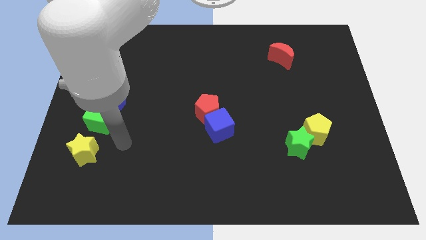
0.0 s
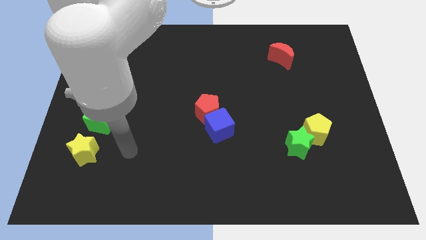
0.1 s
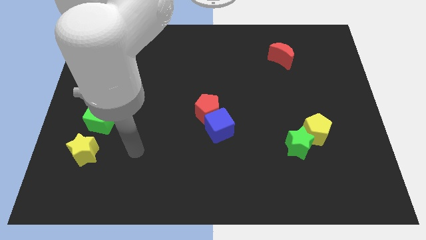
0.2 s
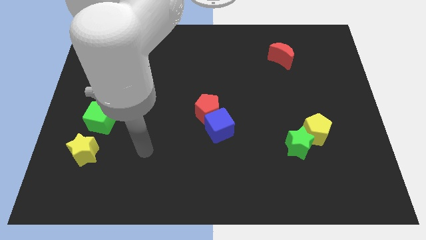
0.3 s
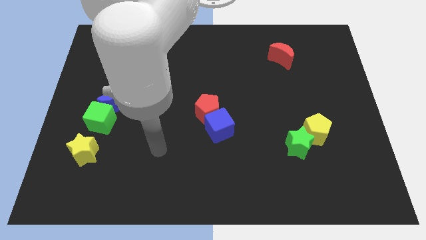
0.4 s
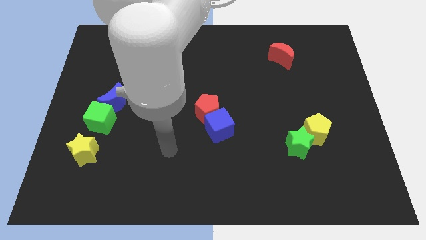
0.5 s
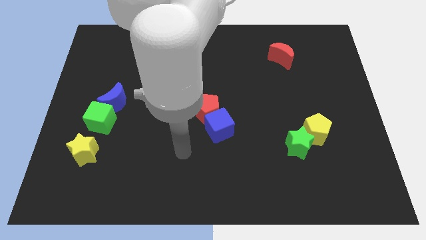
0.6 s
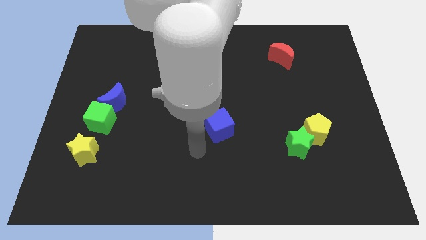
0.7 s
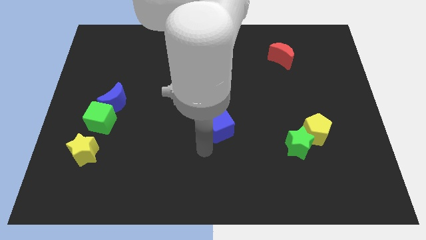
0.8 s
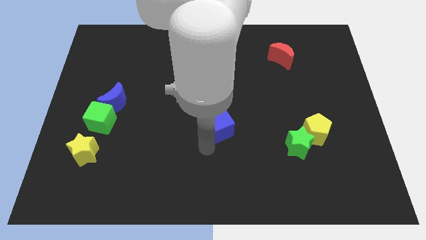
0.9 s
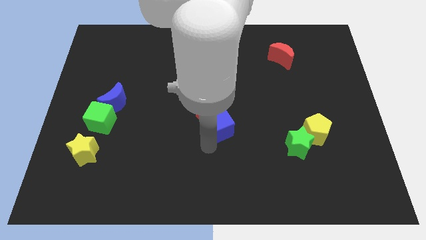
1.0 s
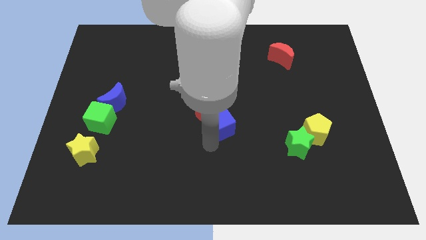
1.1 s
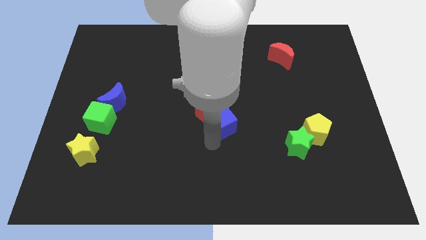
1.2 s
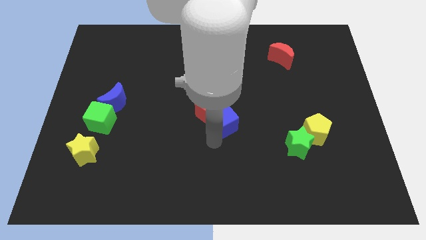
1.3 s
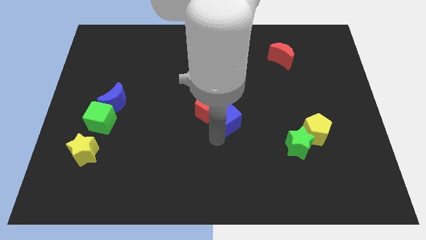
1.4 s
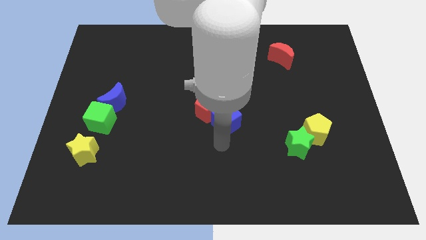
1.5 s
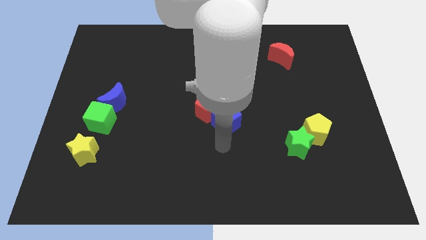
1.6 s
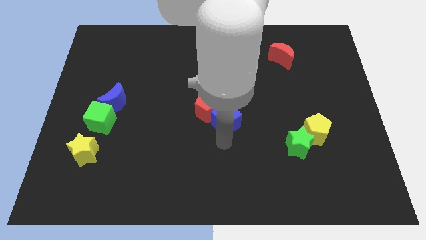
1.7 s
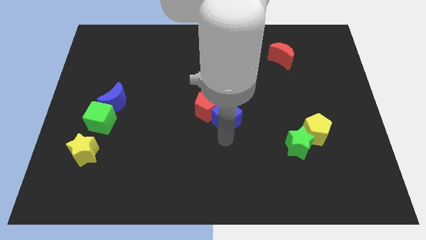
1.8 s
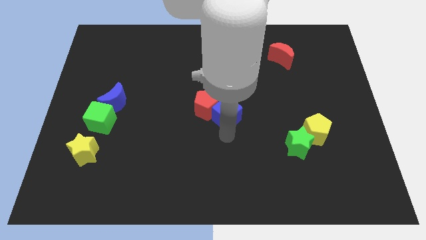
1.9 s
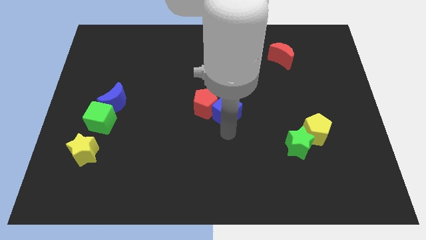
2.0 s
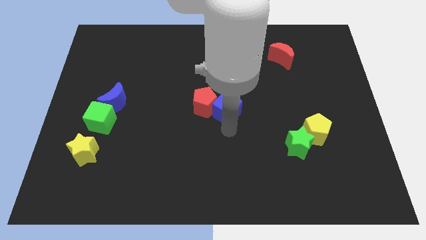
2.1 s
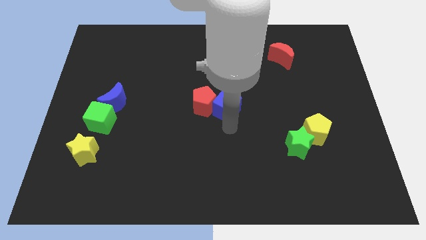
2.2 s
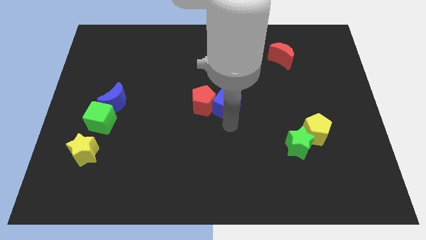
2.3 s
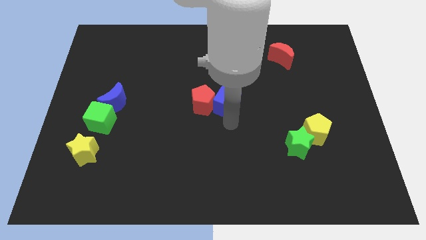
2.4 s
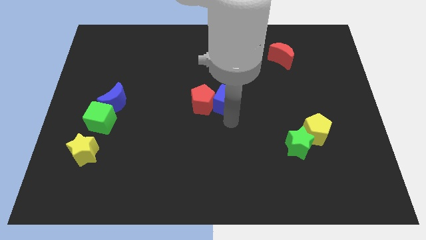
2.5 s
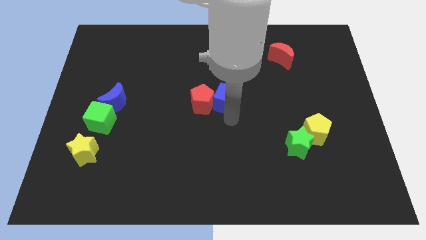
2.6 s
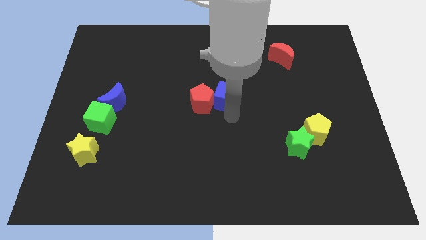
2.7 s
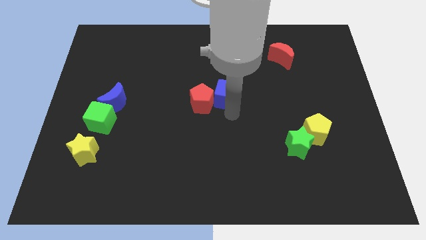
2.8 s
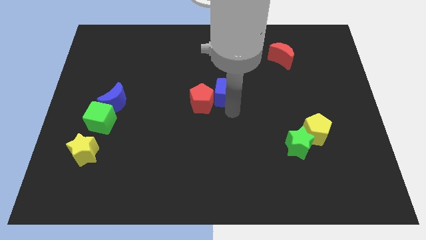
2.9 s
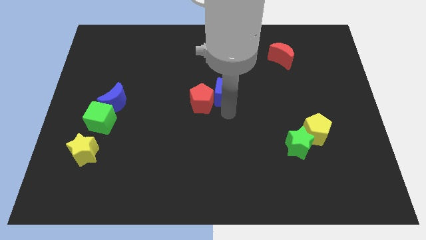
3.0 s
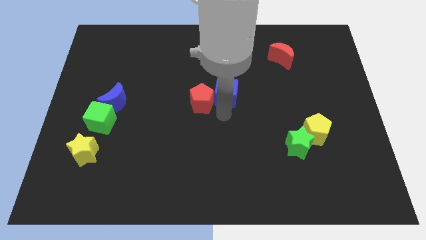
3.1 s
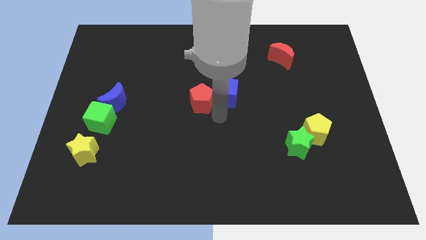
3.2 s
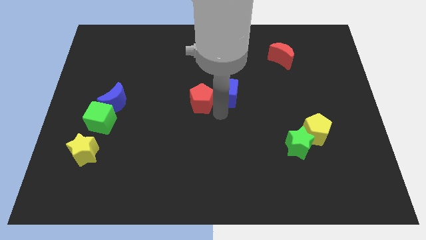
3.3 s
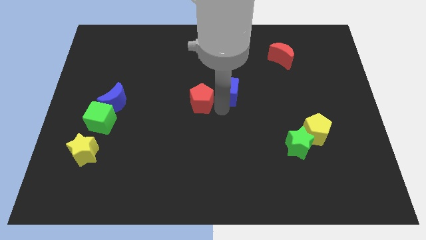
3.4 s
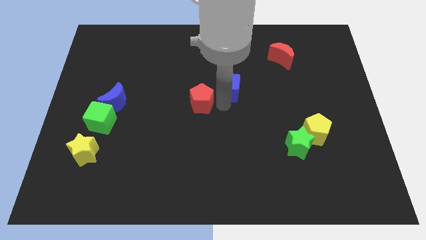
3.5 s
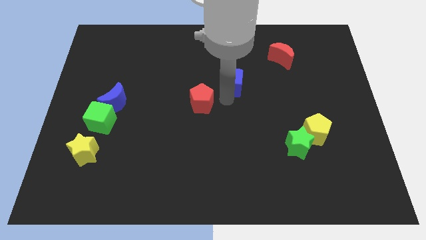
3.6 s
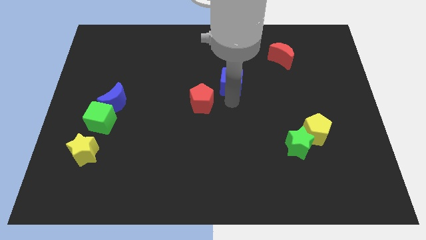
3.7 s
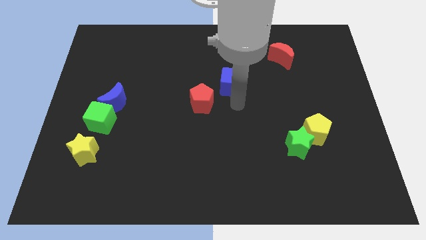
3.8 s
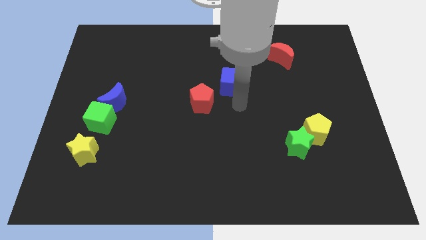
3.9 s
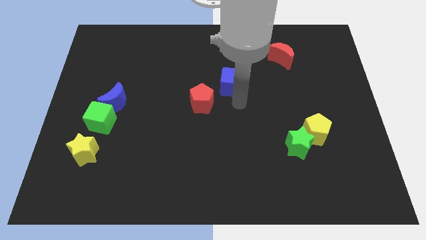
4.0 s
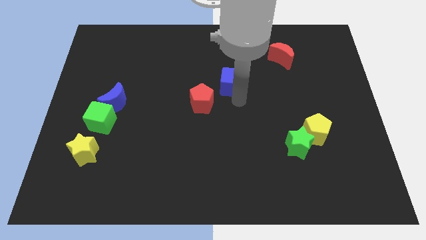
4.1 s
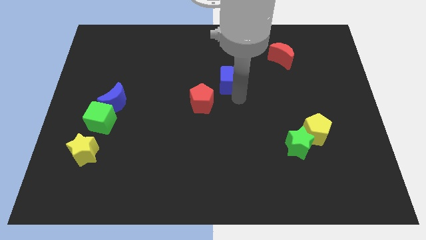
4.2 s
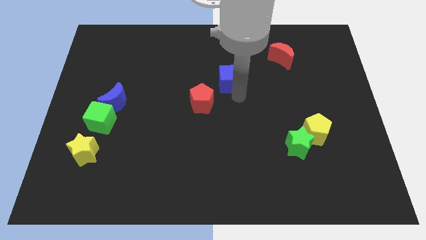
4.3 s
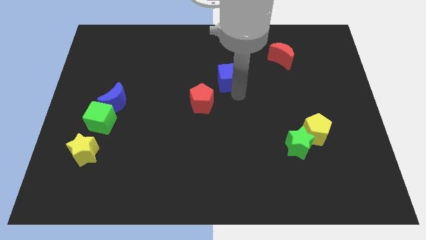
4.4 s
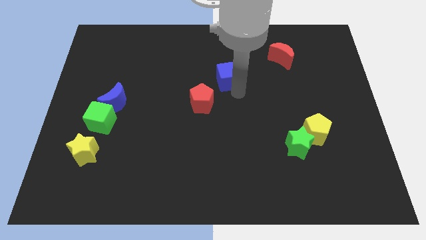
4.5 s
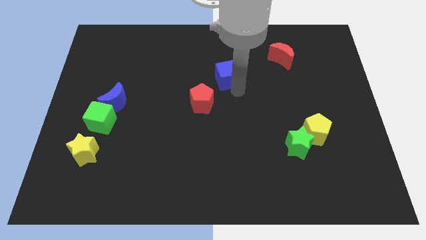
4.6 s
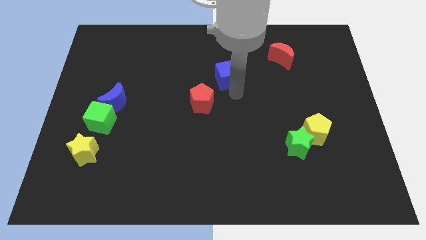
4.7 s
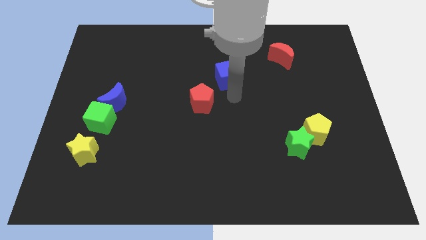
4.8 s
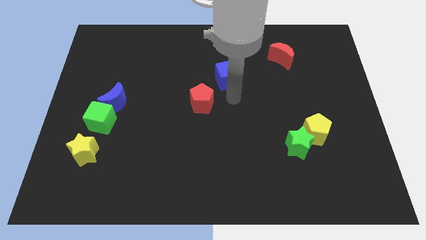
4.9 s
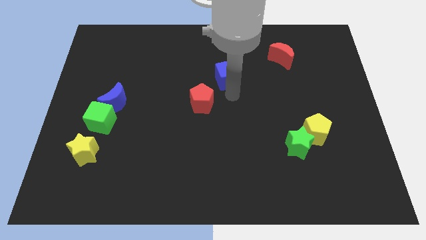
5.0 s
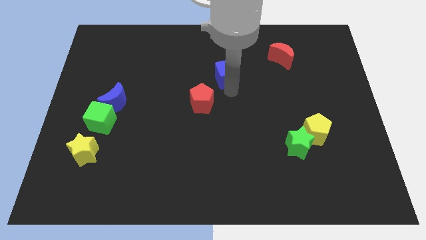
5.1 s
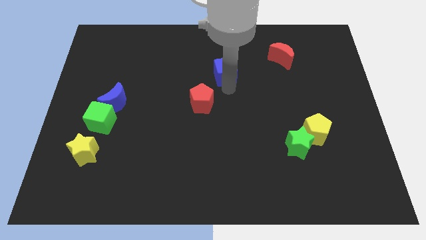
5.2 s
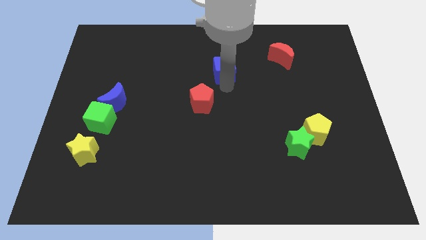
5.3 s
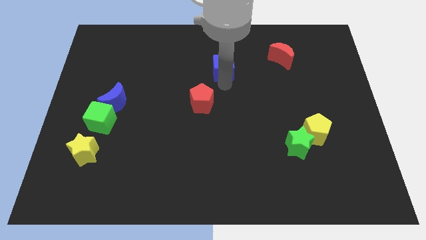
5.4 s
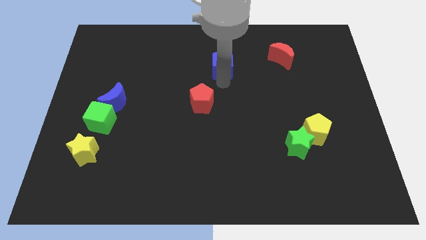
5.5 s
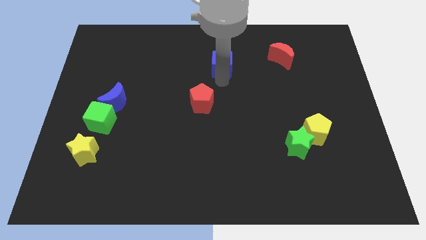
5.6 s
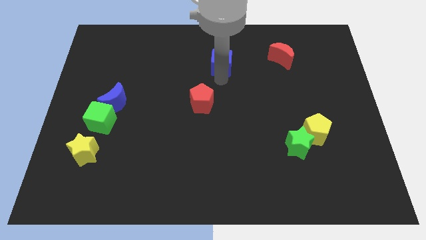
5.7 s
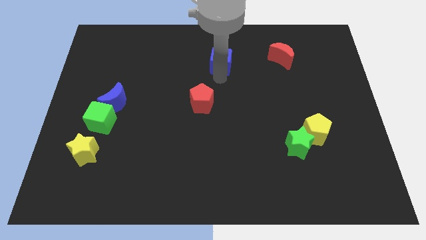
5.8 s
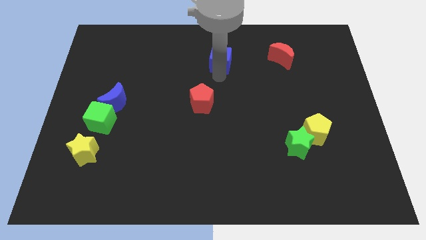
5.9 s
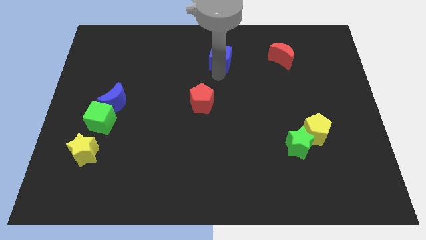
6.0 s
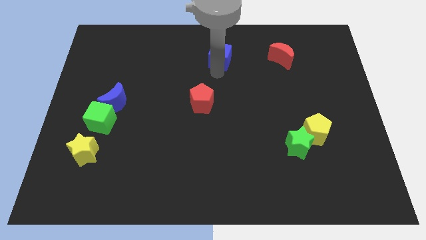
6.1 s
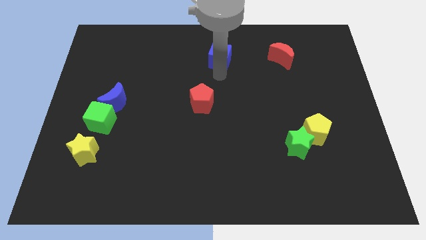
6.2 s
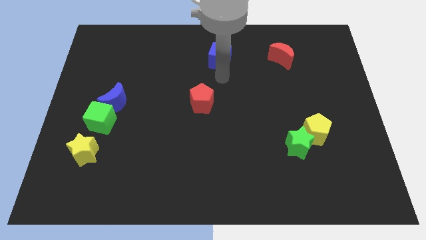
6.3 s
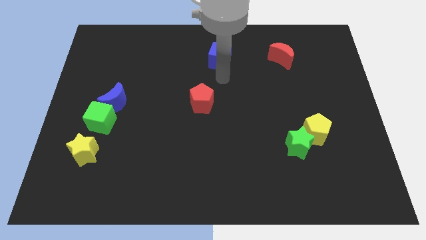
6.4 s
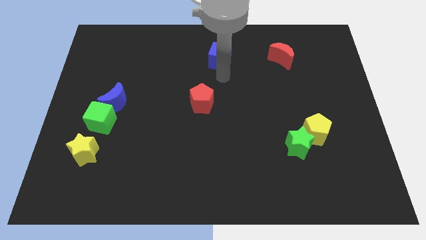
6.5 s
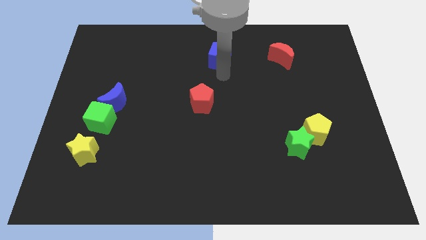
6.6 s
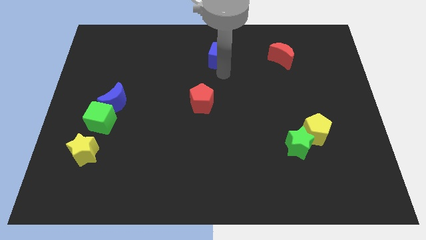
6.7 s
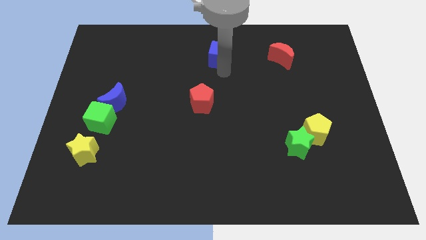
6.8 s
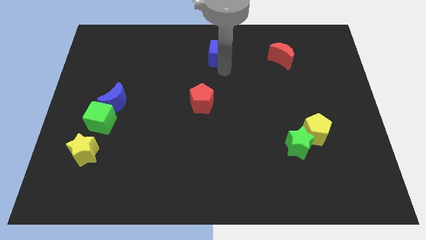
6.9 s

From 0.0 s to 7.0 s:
put the blue cube to the top side
